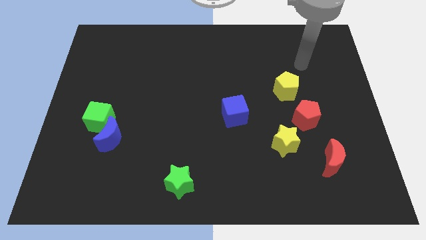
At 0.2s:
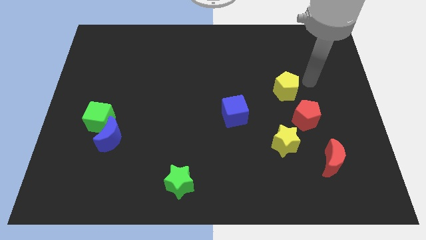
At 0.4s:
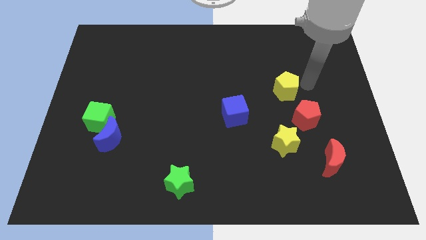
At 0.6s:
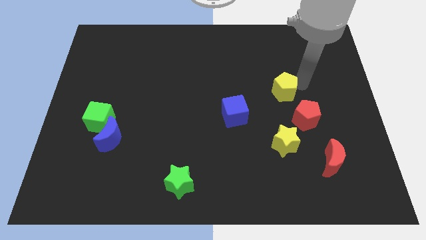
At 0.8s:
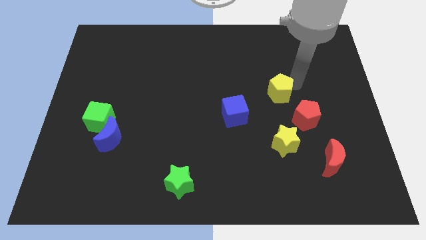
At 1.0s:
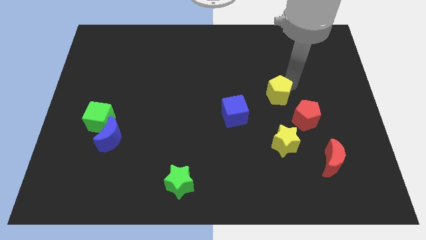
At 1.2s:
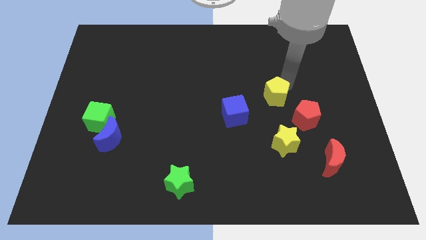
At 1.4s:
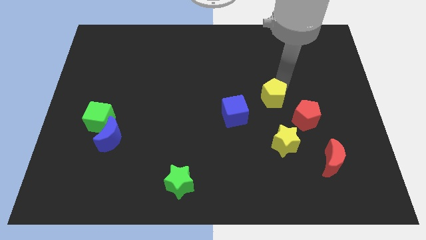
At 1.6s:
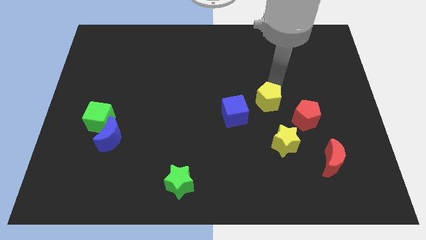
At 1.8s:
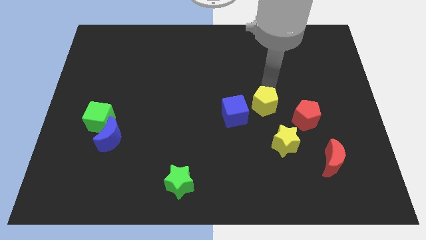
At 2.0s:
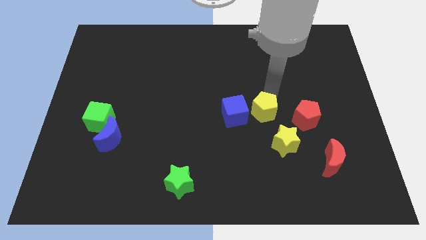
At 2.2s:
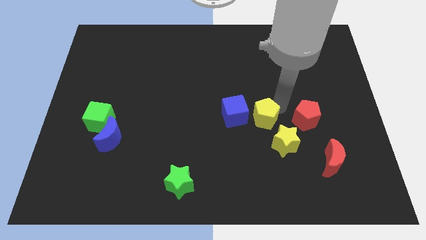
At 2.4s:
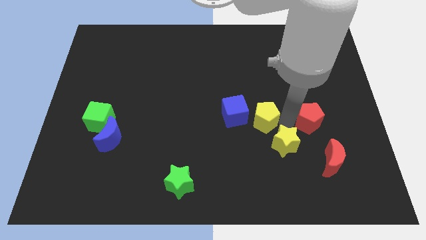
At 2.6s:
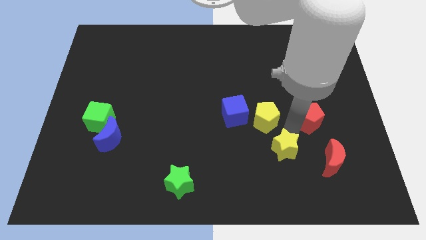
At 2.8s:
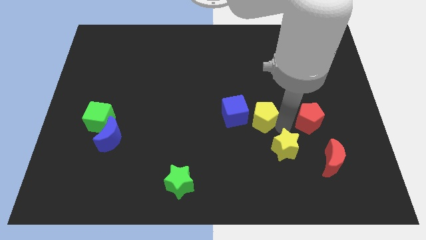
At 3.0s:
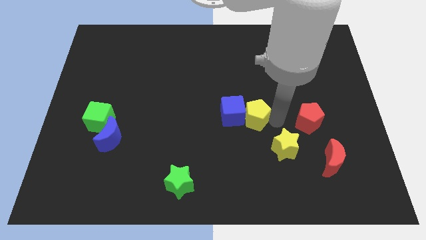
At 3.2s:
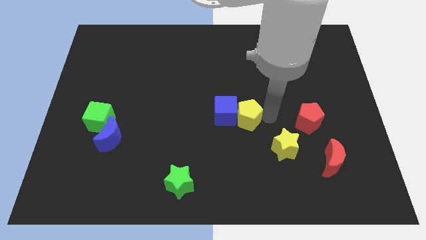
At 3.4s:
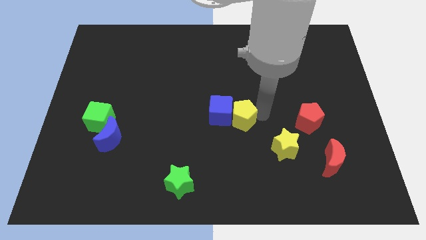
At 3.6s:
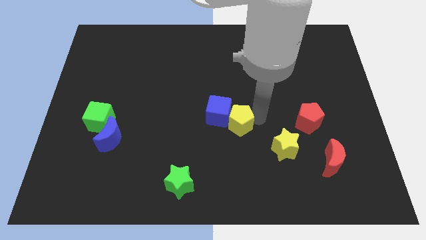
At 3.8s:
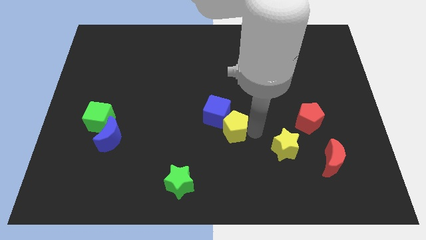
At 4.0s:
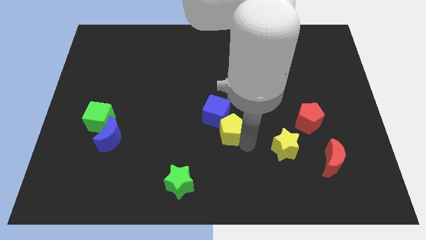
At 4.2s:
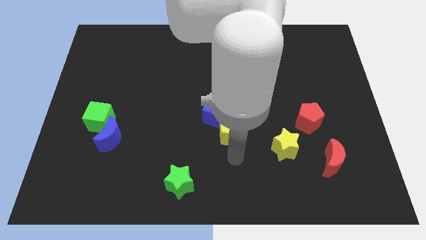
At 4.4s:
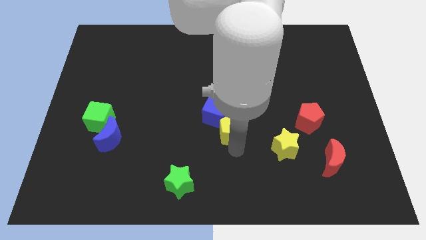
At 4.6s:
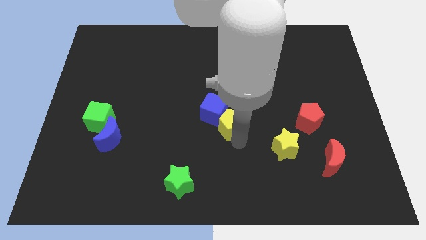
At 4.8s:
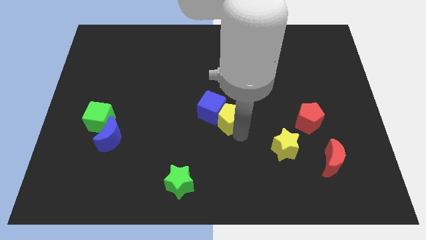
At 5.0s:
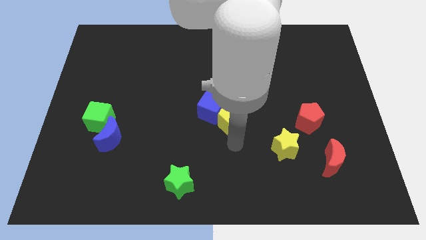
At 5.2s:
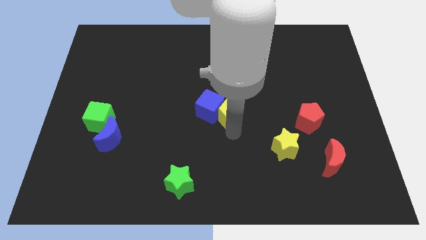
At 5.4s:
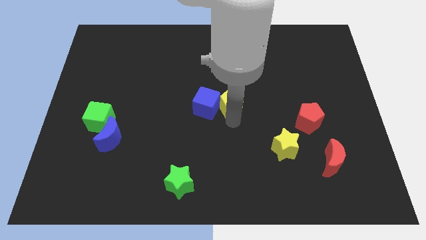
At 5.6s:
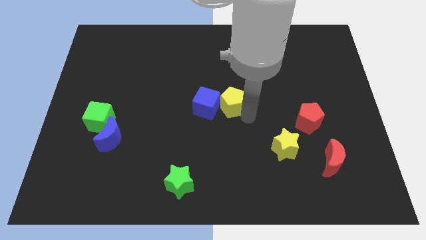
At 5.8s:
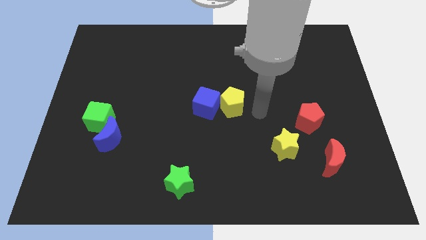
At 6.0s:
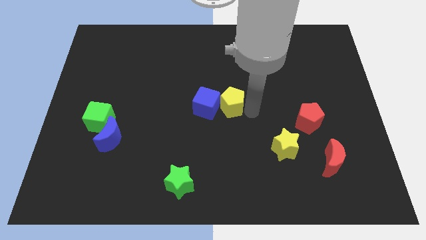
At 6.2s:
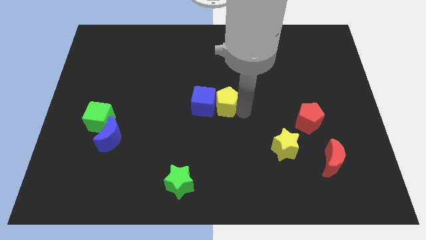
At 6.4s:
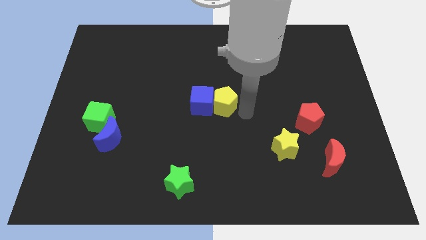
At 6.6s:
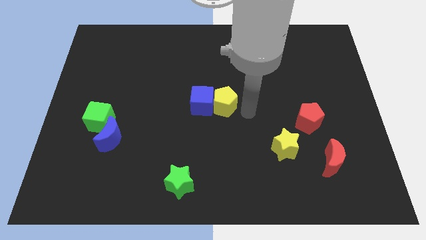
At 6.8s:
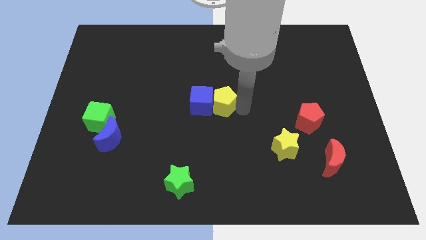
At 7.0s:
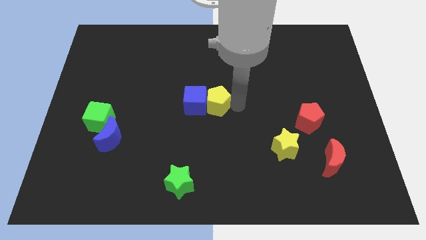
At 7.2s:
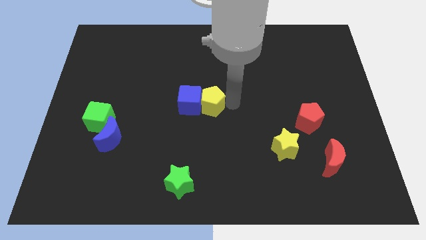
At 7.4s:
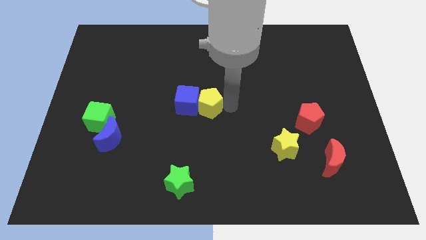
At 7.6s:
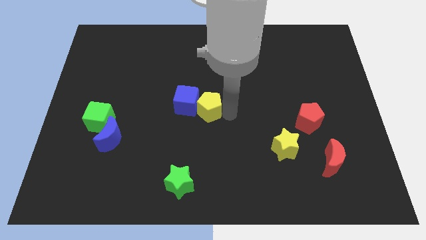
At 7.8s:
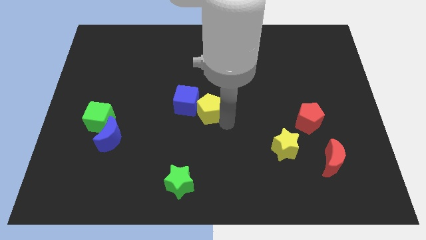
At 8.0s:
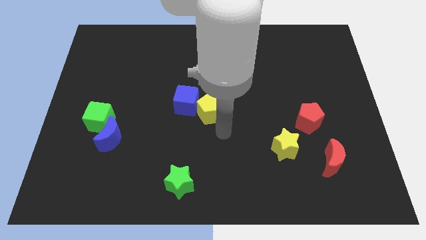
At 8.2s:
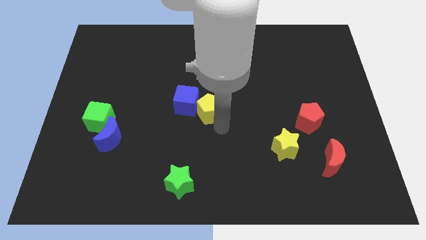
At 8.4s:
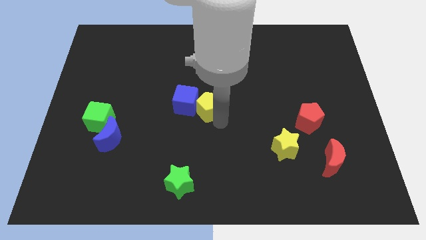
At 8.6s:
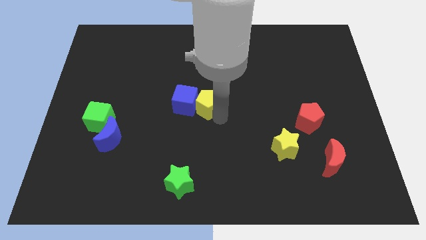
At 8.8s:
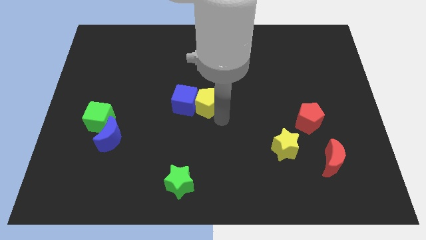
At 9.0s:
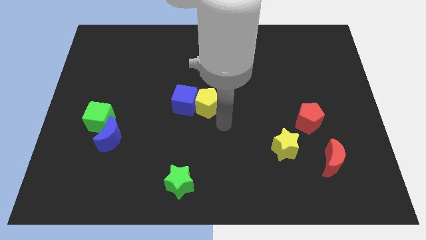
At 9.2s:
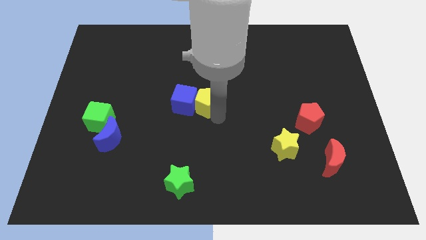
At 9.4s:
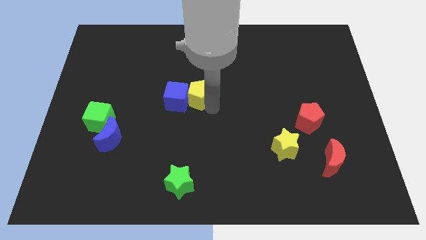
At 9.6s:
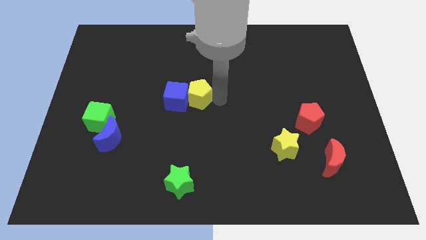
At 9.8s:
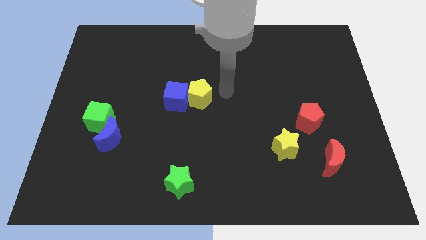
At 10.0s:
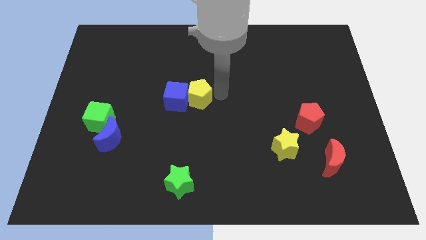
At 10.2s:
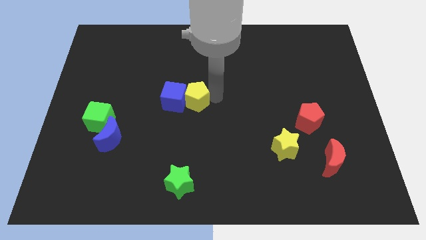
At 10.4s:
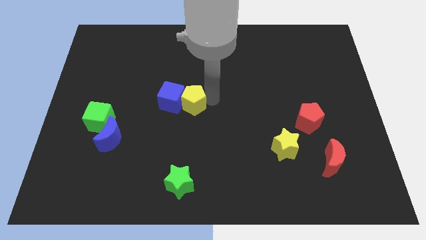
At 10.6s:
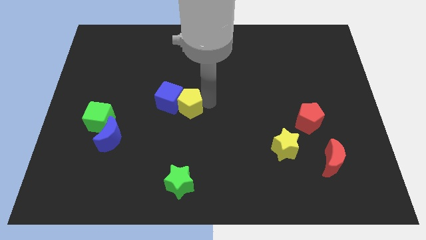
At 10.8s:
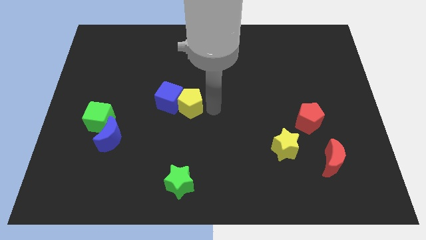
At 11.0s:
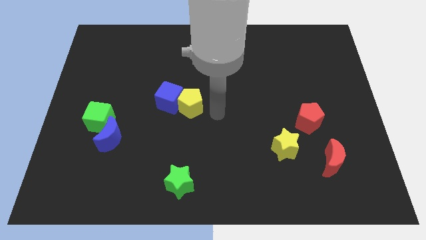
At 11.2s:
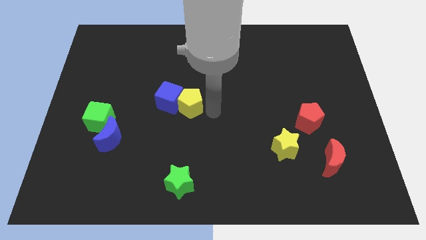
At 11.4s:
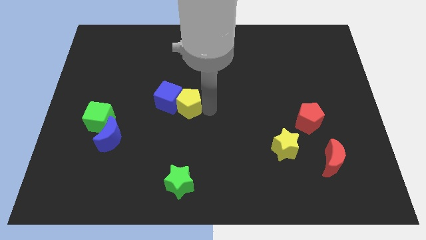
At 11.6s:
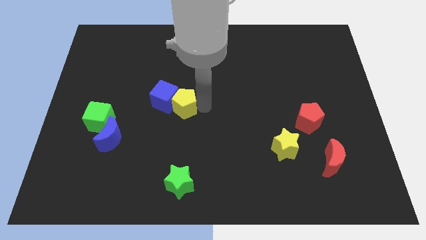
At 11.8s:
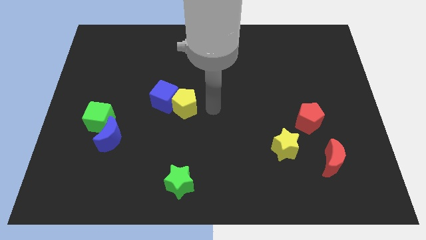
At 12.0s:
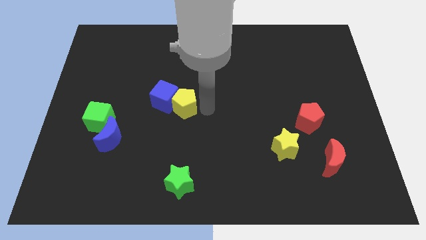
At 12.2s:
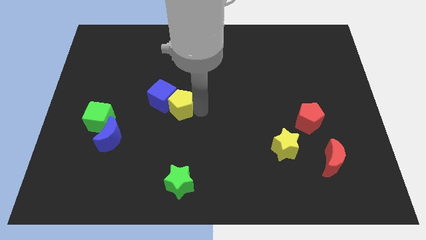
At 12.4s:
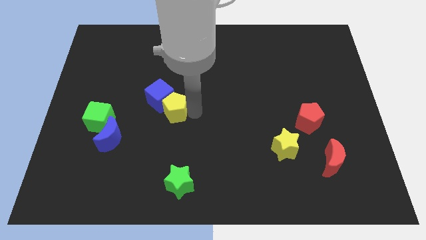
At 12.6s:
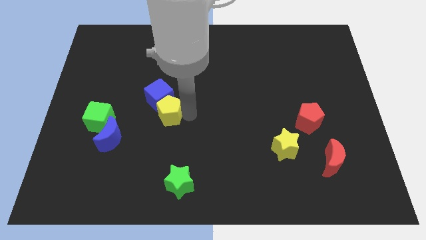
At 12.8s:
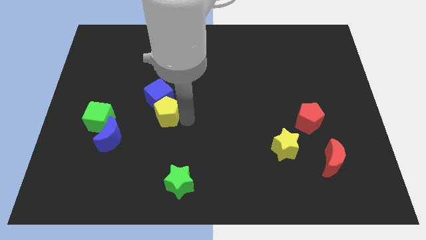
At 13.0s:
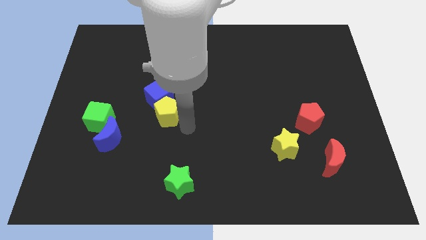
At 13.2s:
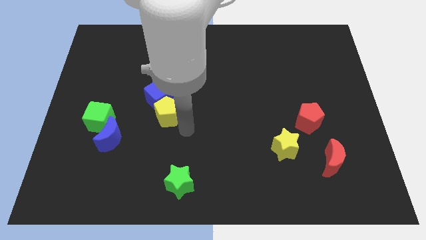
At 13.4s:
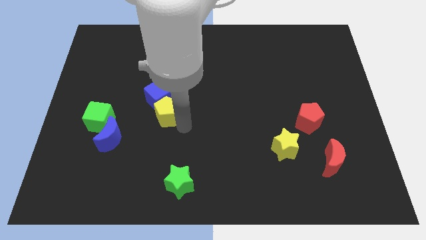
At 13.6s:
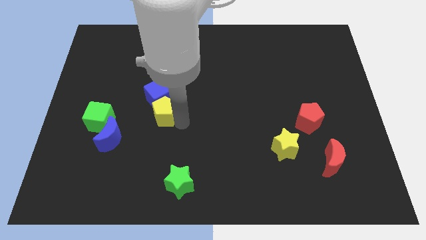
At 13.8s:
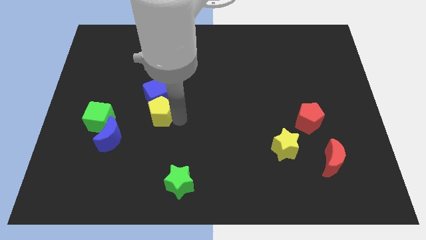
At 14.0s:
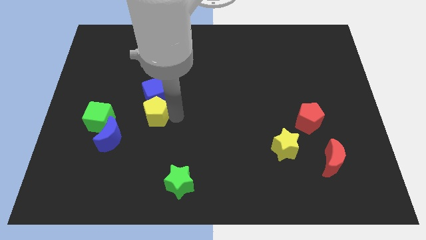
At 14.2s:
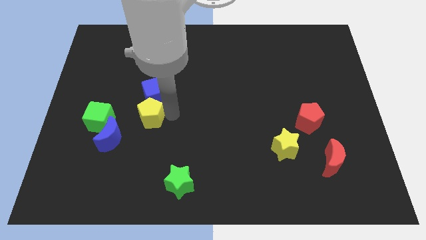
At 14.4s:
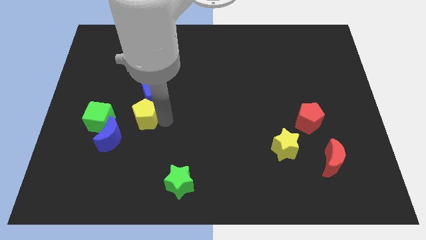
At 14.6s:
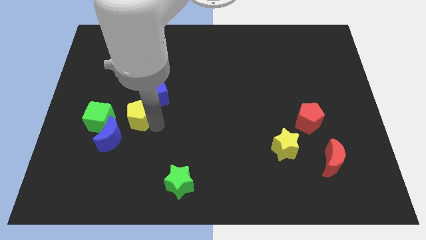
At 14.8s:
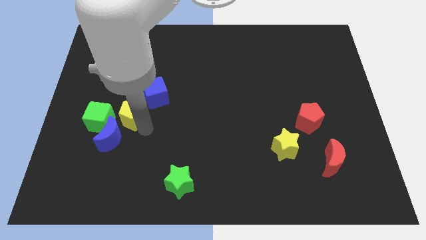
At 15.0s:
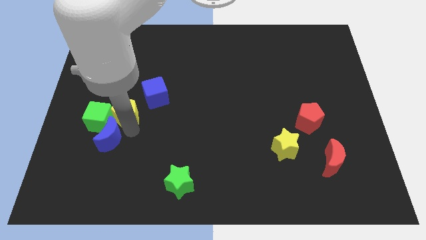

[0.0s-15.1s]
push the yellow pentagon towards the green cube
